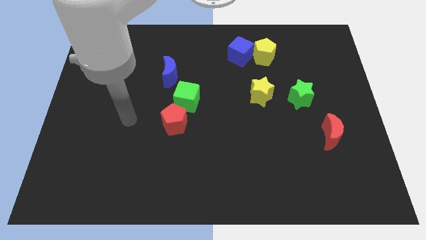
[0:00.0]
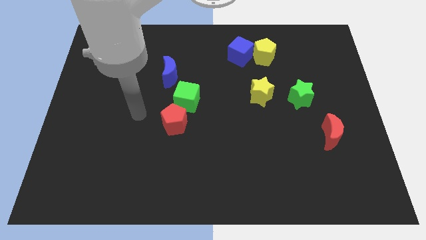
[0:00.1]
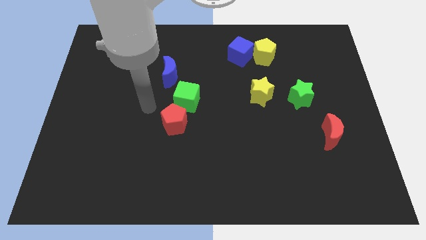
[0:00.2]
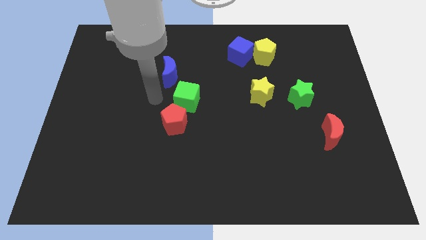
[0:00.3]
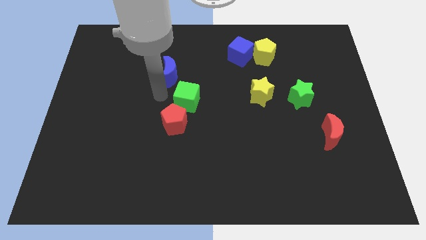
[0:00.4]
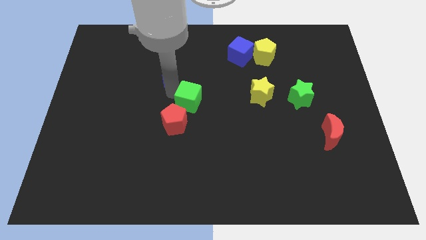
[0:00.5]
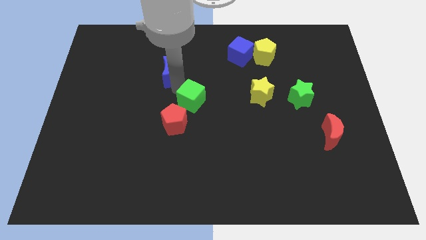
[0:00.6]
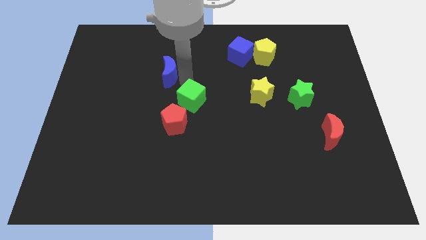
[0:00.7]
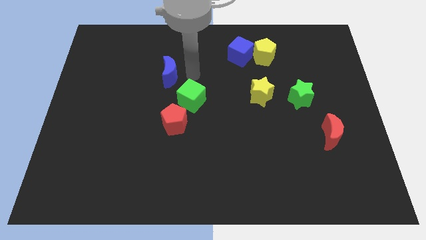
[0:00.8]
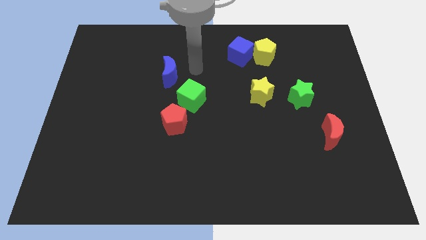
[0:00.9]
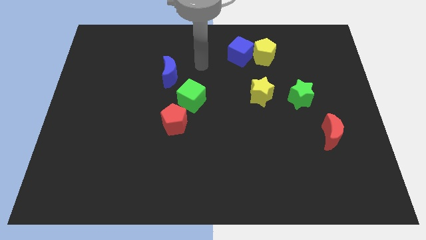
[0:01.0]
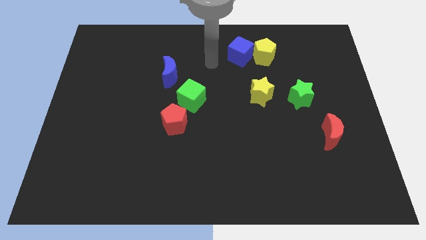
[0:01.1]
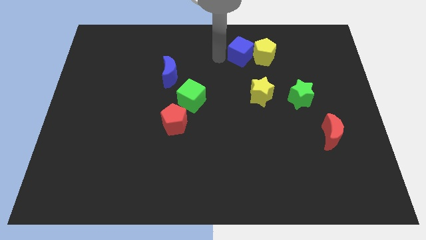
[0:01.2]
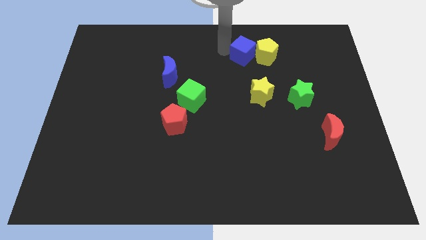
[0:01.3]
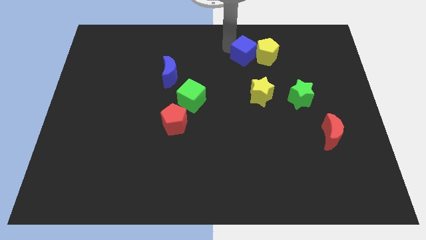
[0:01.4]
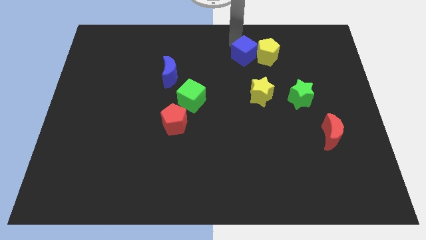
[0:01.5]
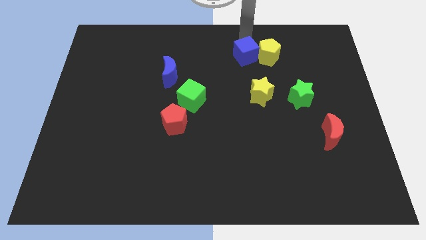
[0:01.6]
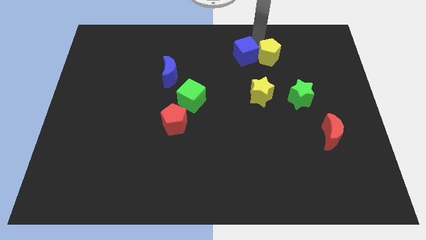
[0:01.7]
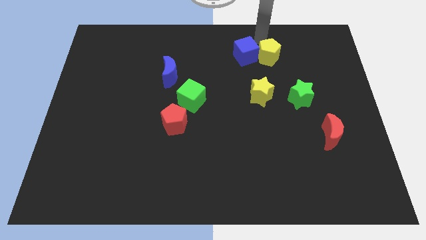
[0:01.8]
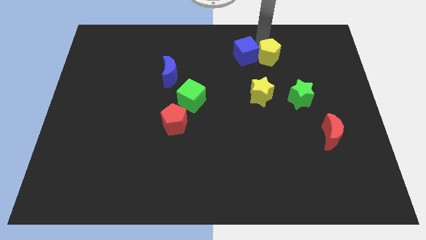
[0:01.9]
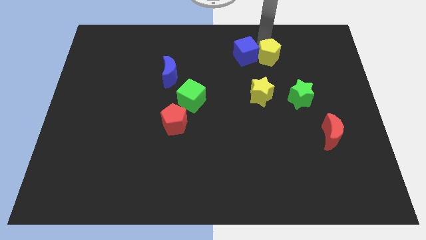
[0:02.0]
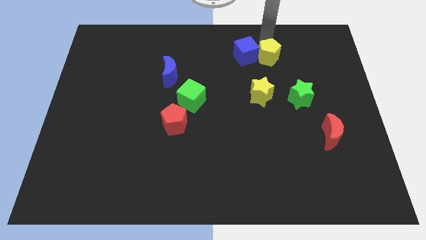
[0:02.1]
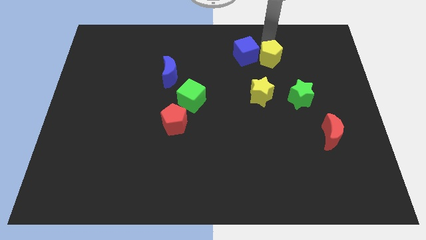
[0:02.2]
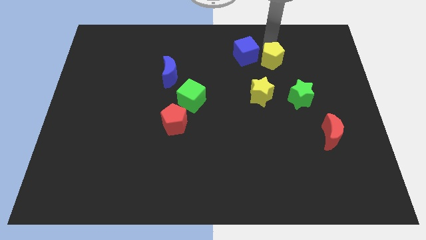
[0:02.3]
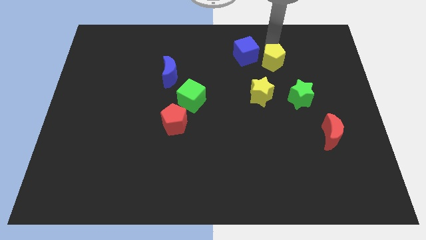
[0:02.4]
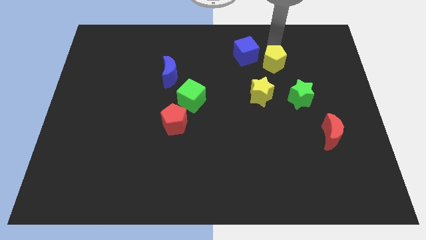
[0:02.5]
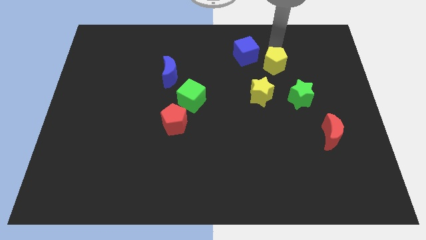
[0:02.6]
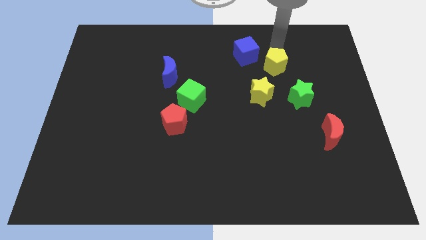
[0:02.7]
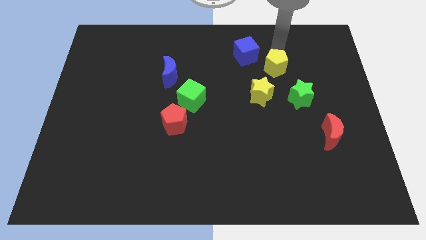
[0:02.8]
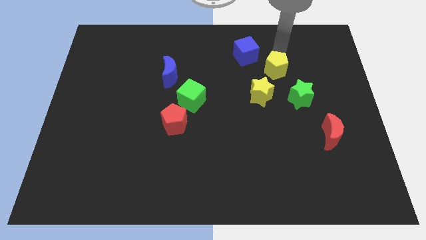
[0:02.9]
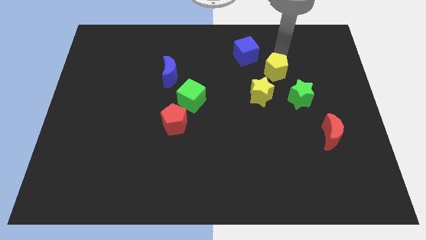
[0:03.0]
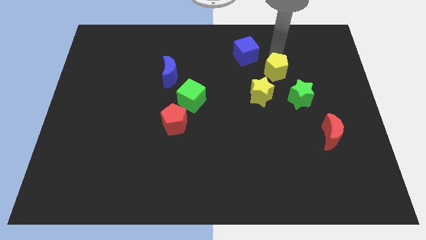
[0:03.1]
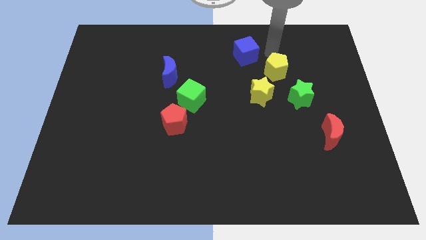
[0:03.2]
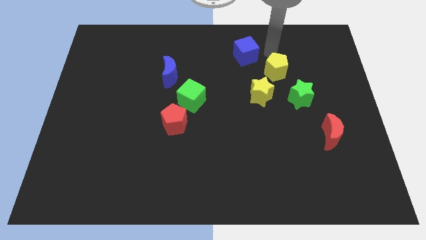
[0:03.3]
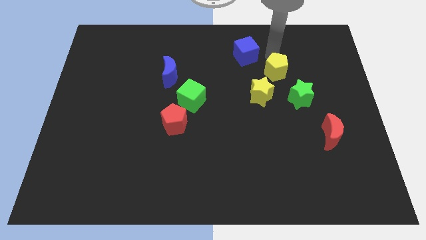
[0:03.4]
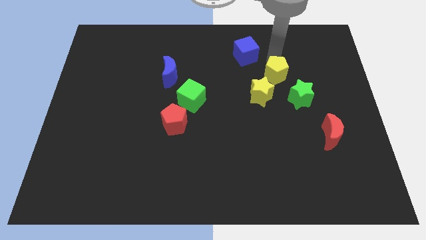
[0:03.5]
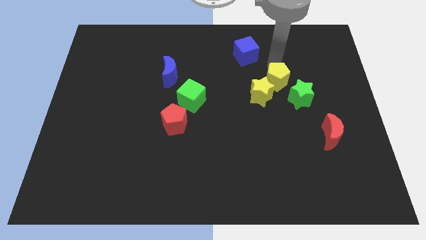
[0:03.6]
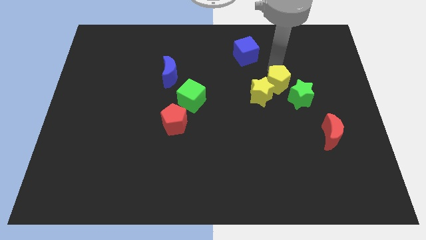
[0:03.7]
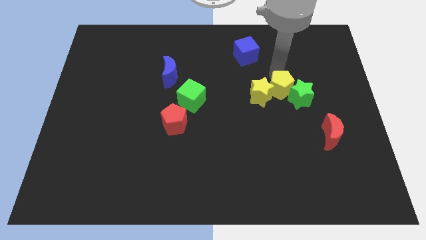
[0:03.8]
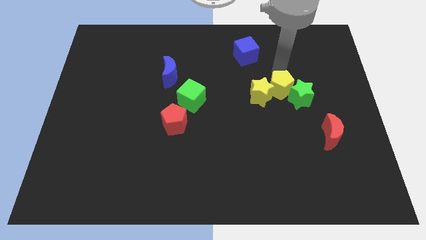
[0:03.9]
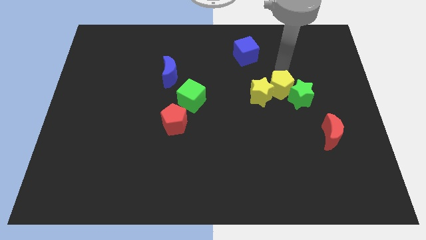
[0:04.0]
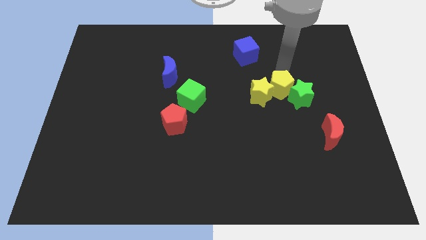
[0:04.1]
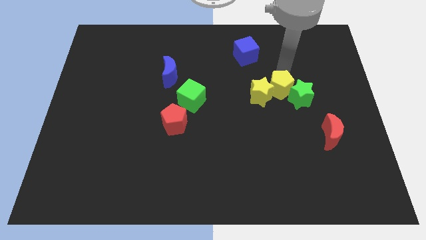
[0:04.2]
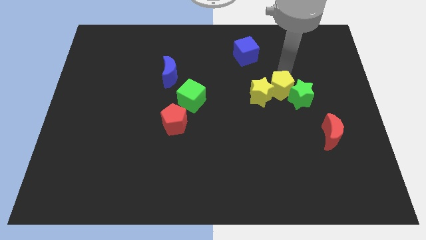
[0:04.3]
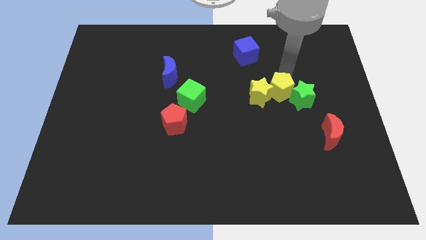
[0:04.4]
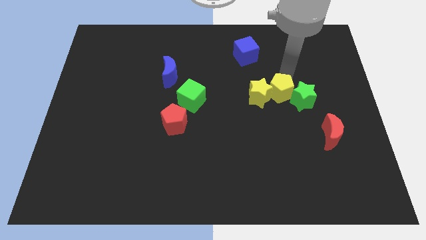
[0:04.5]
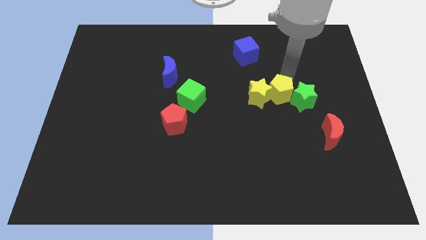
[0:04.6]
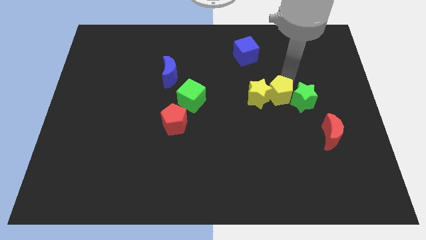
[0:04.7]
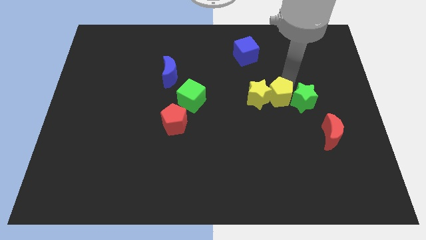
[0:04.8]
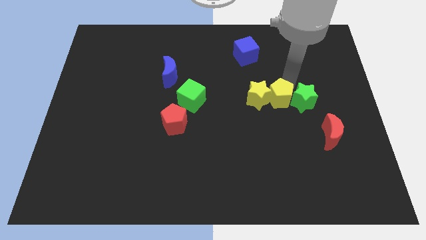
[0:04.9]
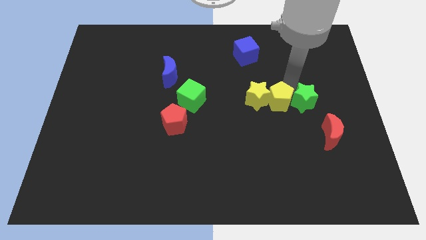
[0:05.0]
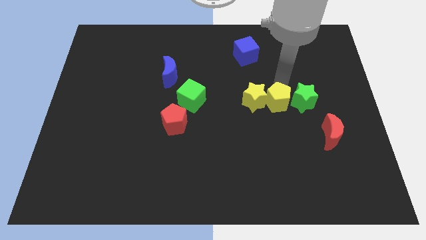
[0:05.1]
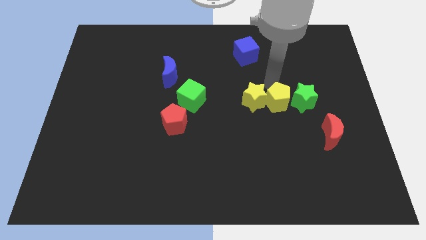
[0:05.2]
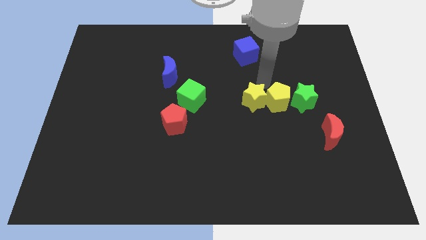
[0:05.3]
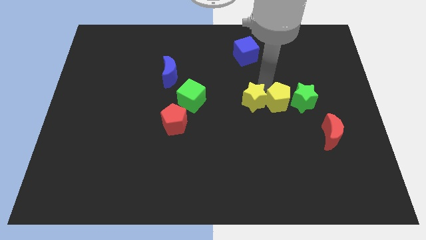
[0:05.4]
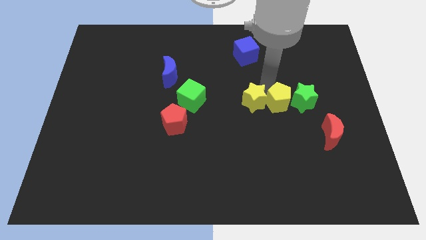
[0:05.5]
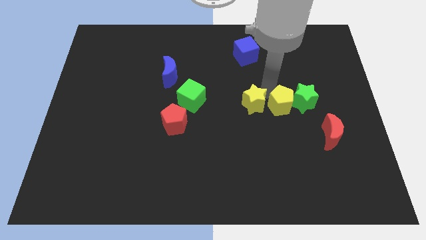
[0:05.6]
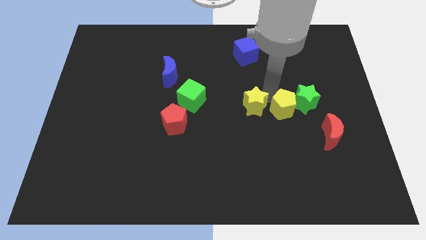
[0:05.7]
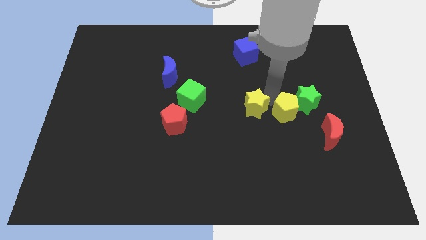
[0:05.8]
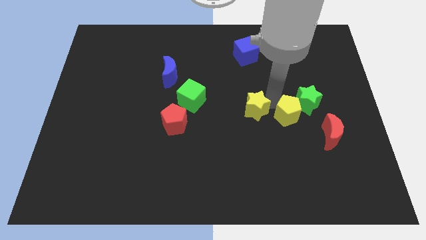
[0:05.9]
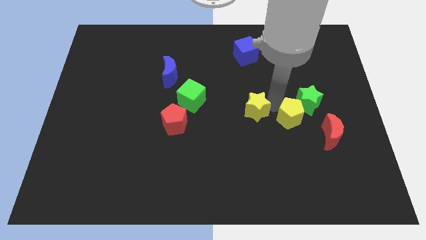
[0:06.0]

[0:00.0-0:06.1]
push the yellow pentagon to the bottom of the green star

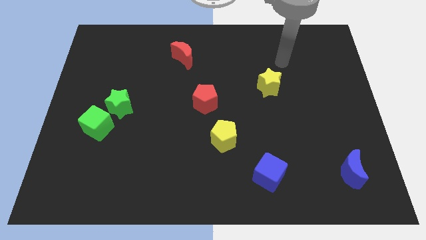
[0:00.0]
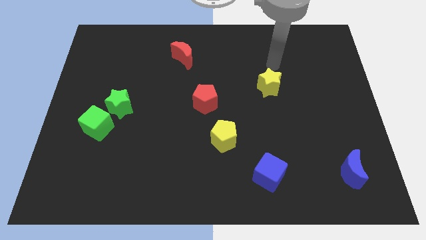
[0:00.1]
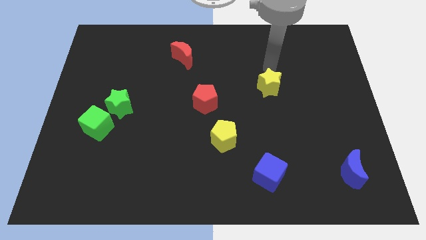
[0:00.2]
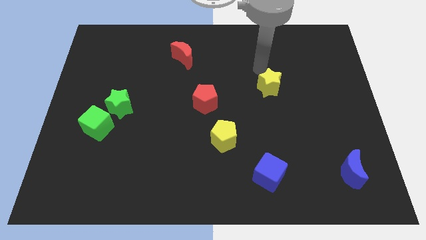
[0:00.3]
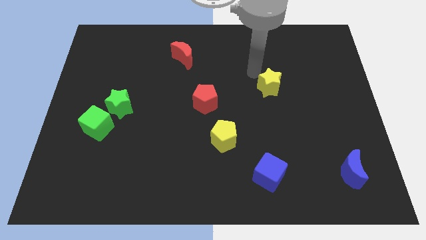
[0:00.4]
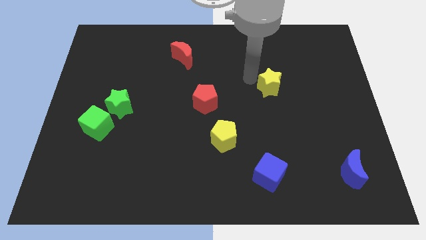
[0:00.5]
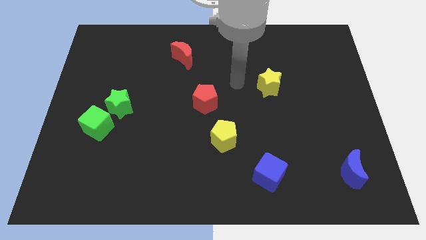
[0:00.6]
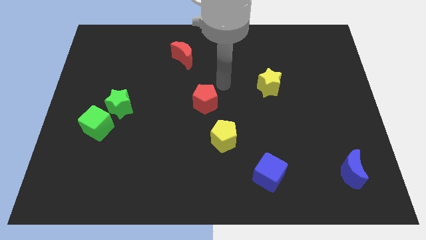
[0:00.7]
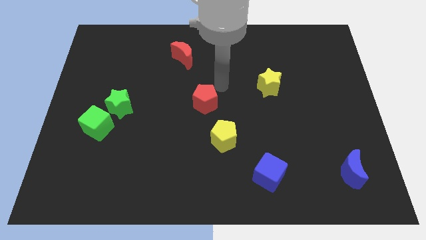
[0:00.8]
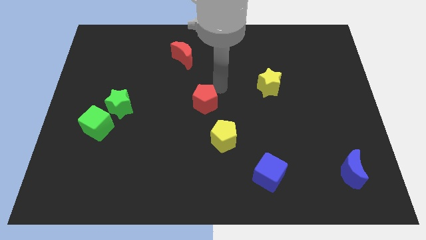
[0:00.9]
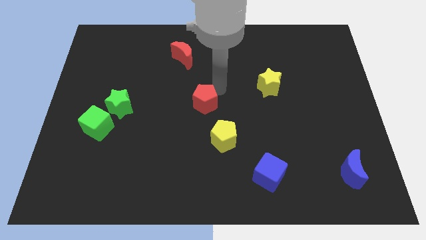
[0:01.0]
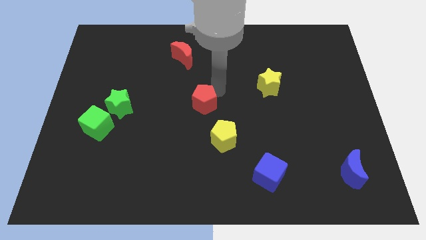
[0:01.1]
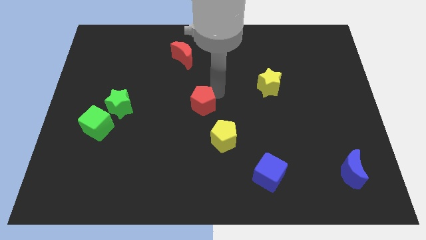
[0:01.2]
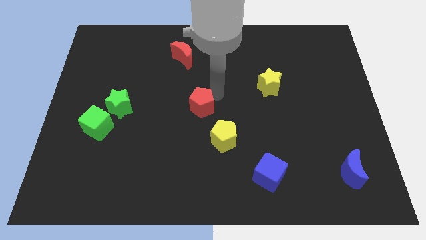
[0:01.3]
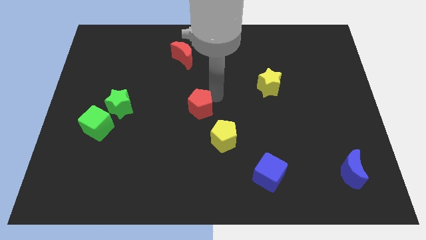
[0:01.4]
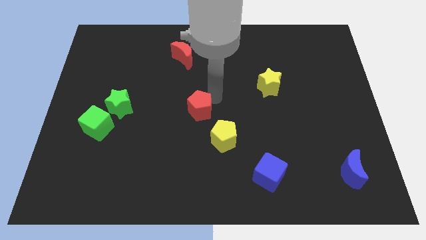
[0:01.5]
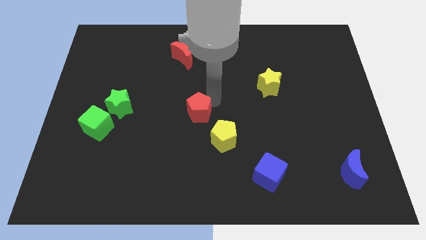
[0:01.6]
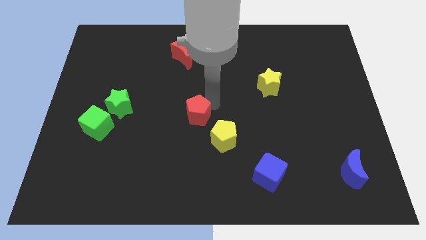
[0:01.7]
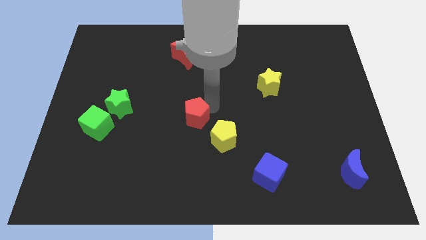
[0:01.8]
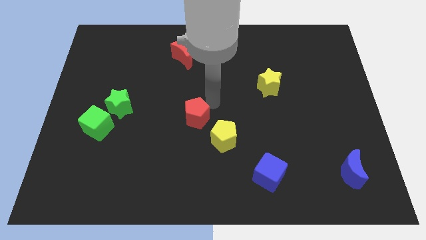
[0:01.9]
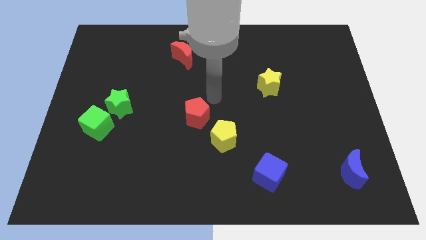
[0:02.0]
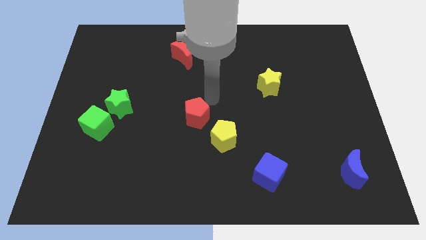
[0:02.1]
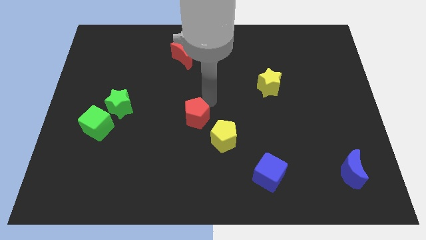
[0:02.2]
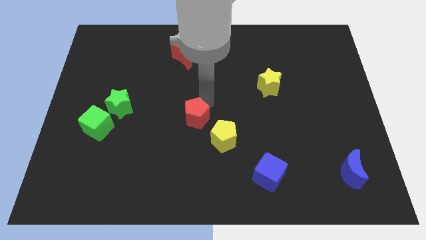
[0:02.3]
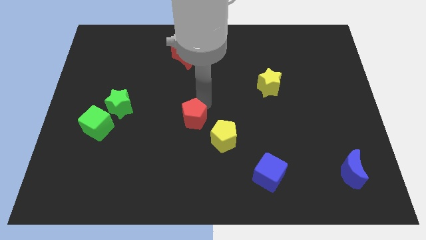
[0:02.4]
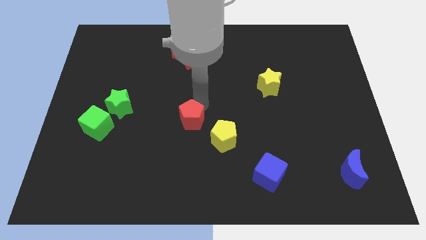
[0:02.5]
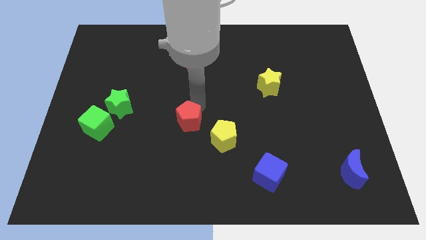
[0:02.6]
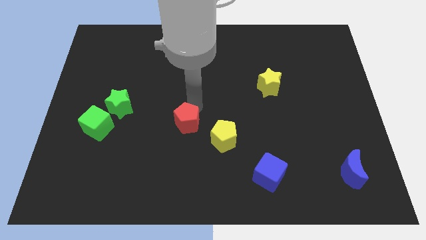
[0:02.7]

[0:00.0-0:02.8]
slide the red pentagon left of the yellow pentagon
